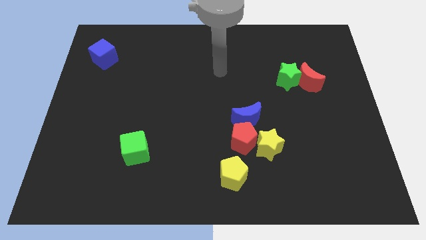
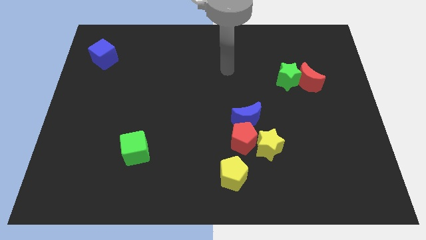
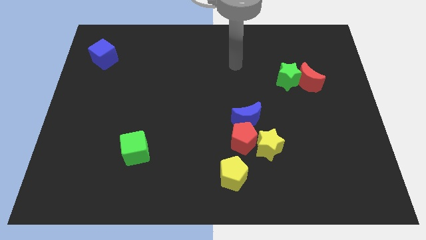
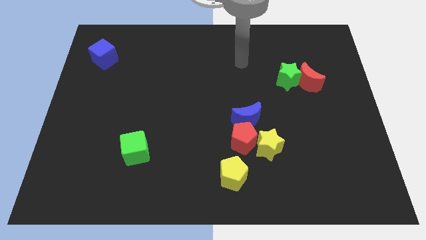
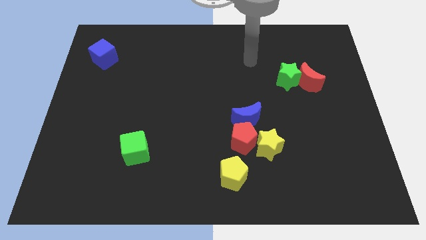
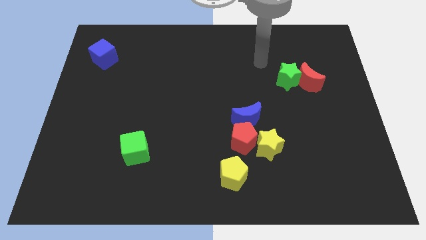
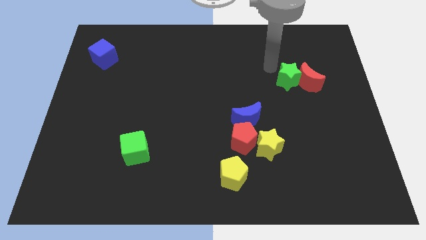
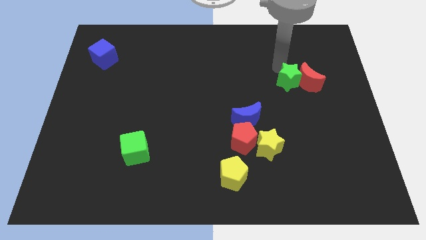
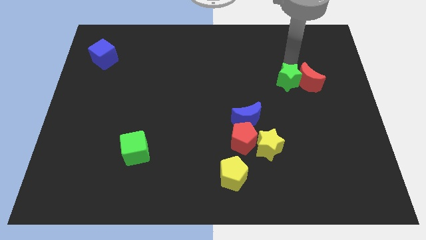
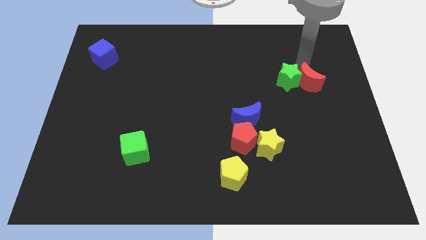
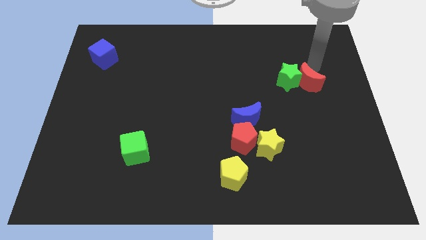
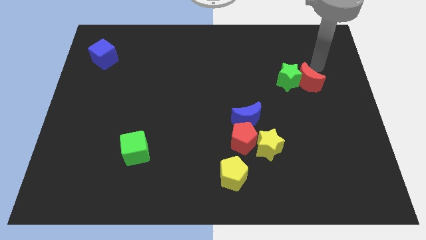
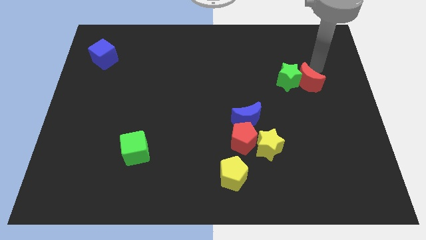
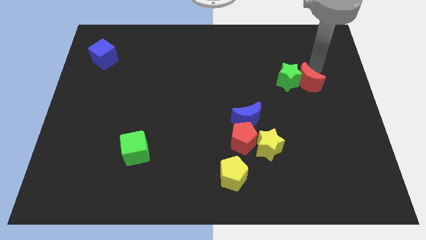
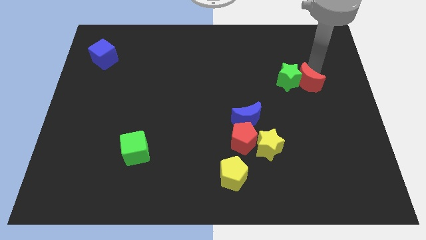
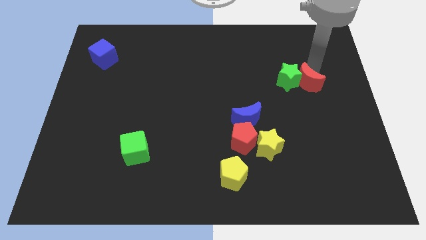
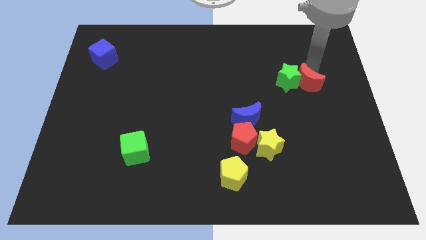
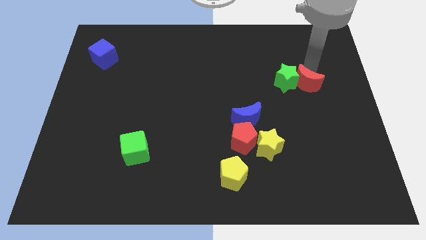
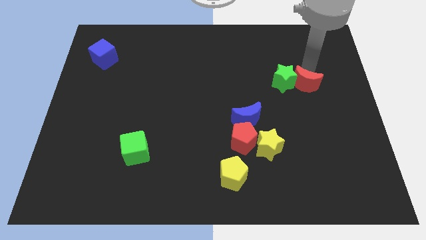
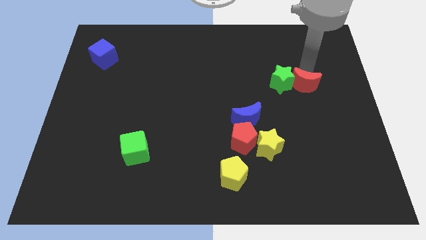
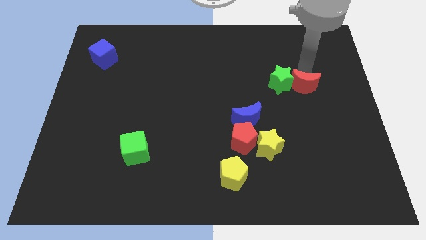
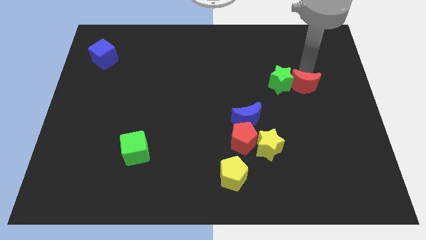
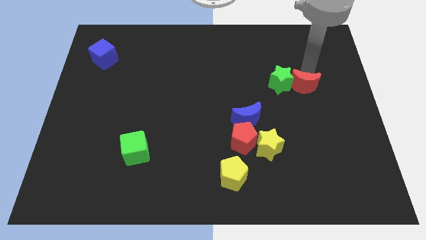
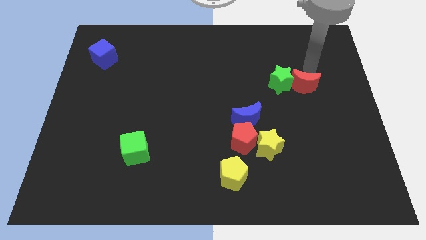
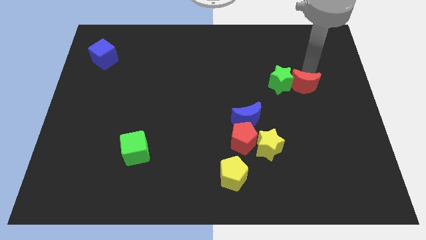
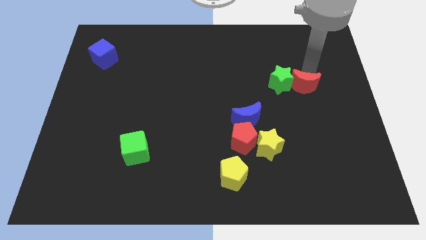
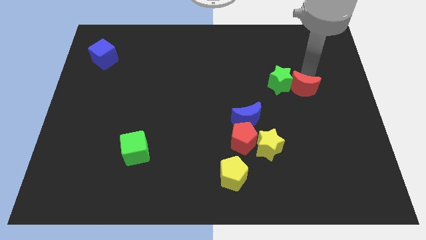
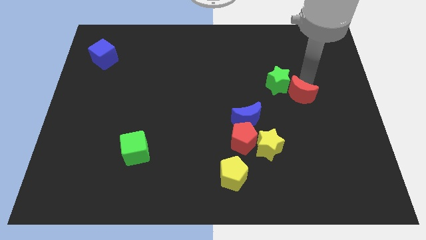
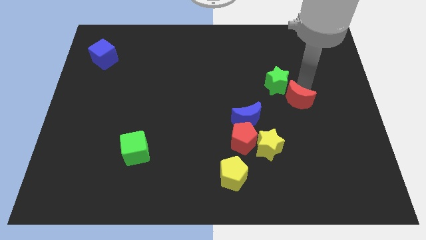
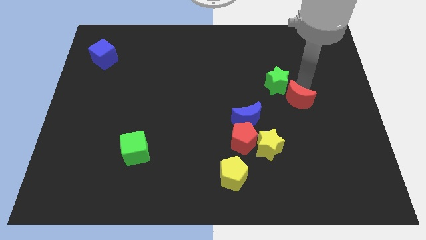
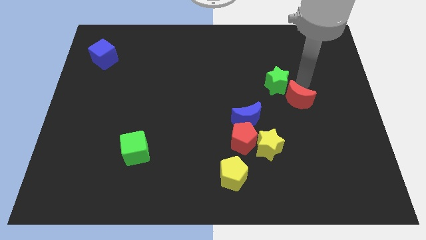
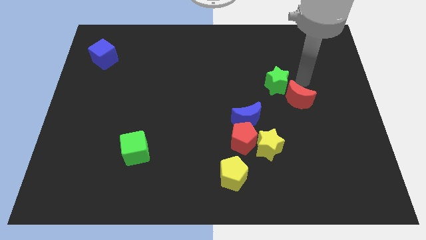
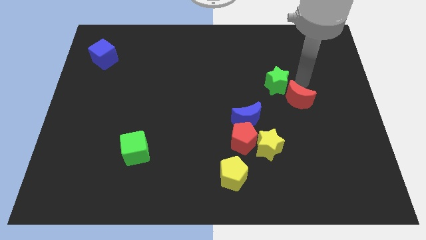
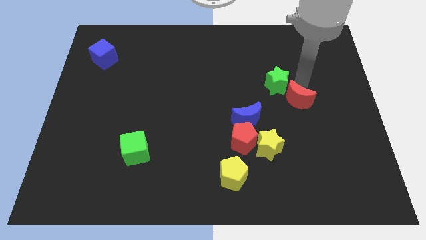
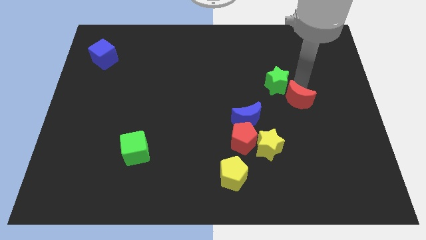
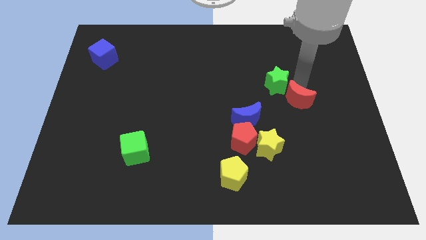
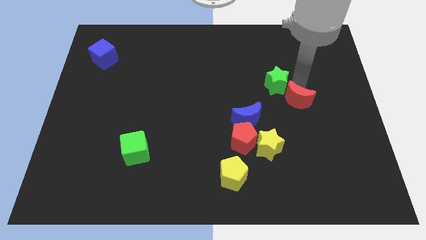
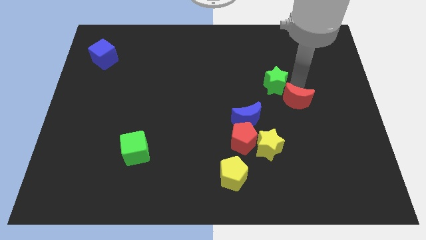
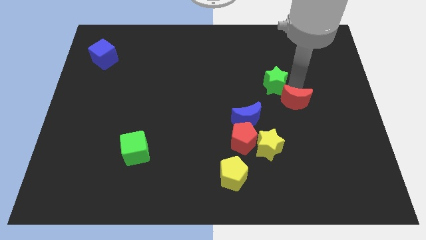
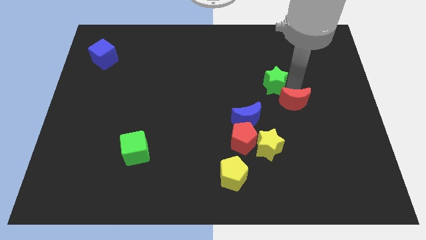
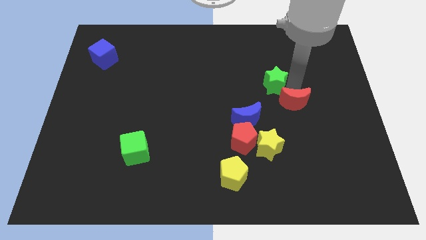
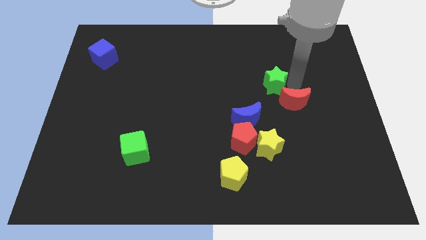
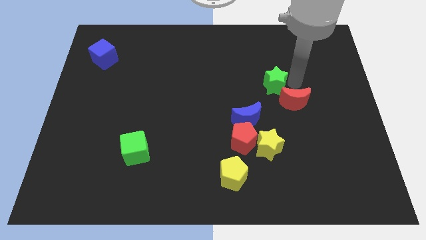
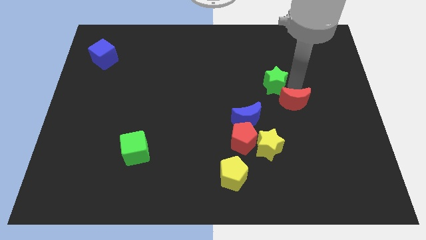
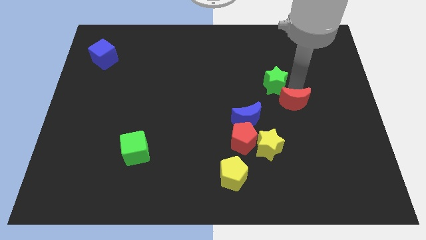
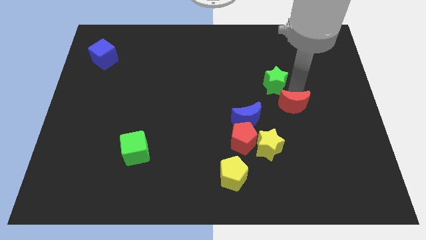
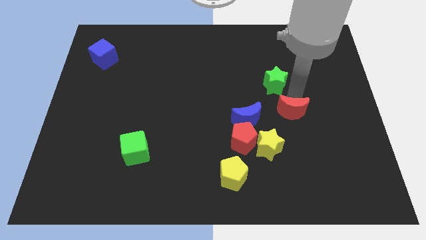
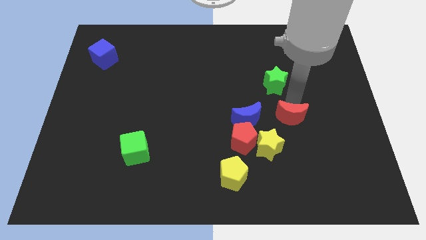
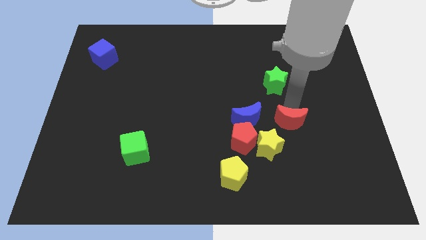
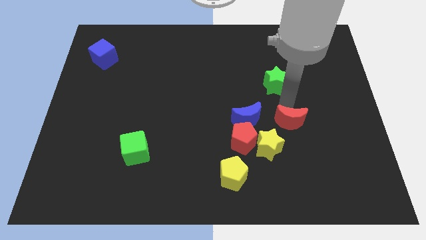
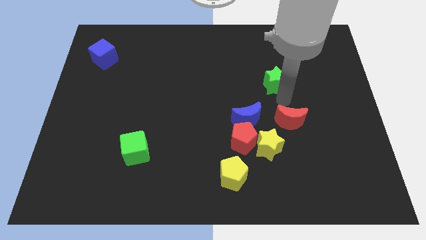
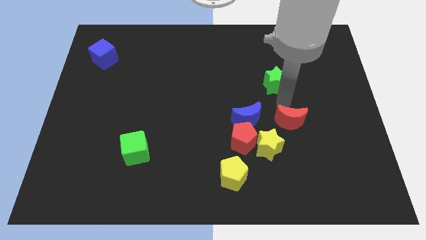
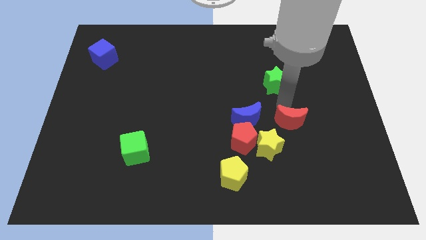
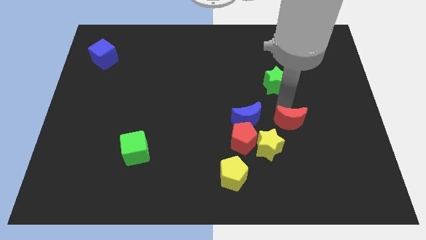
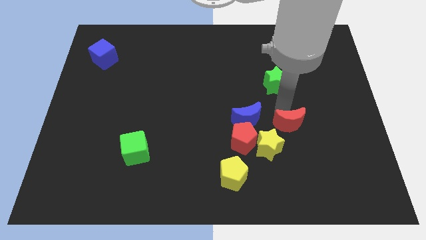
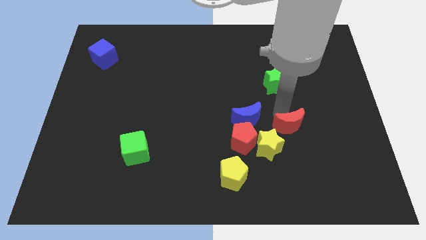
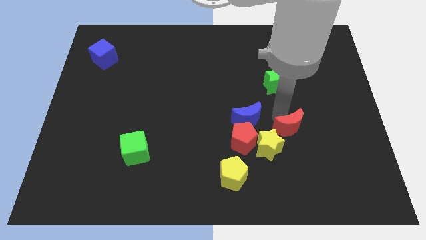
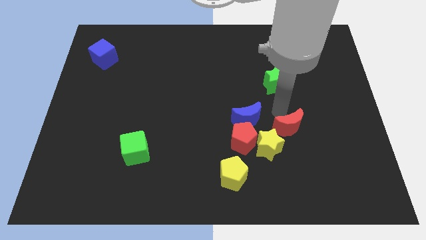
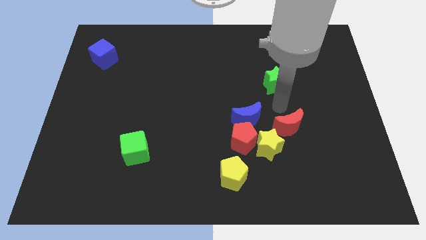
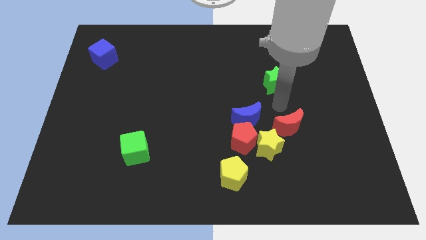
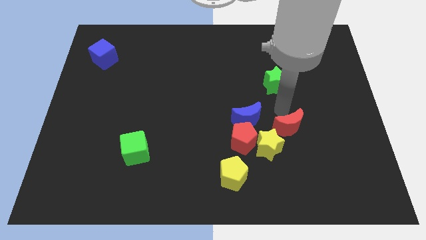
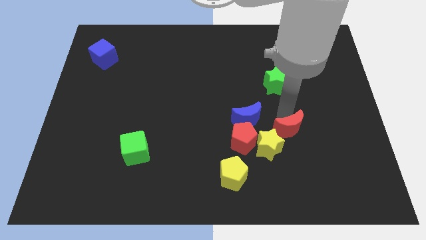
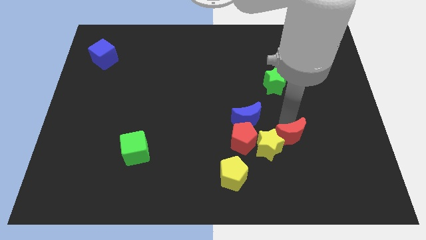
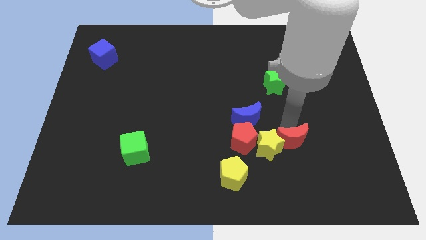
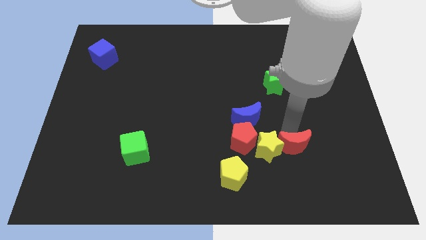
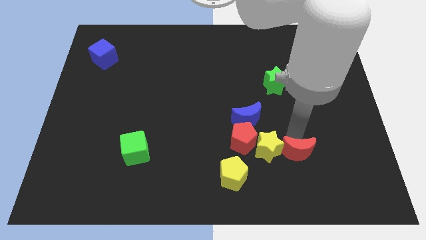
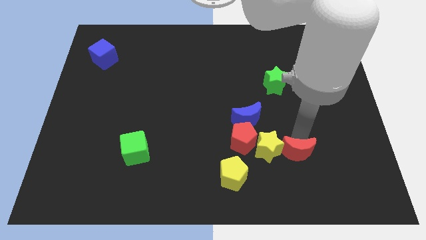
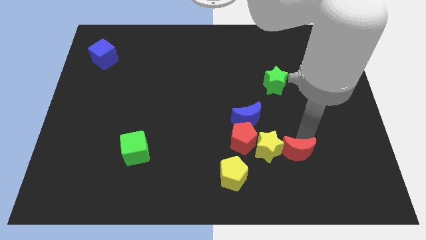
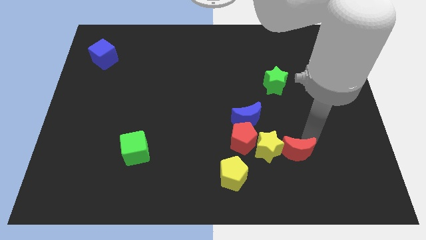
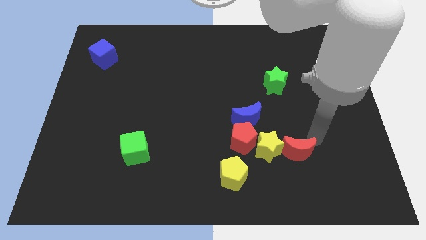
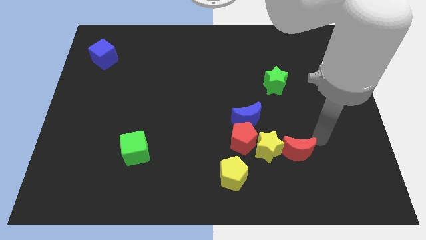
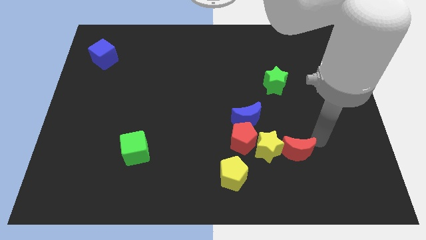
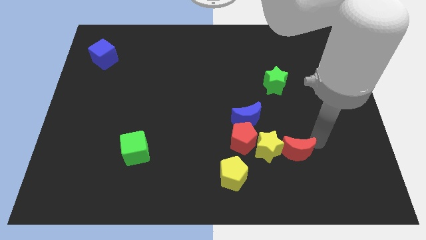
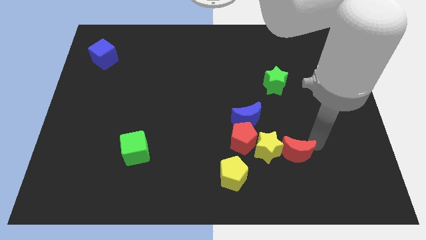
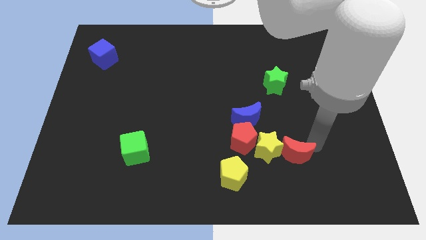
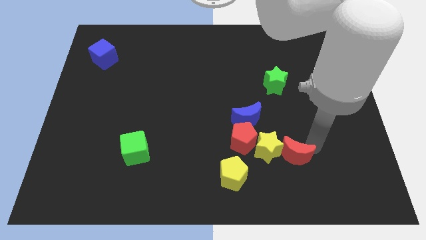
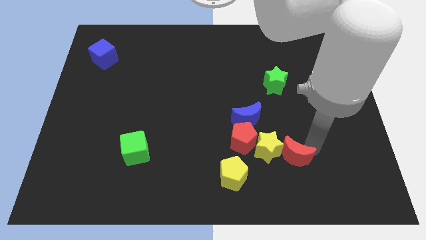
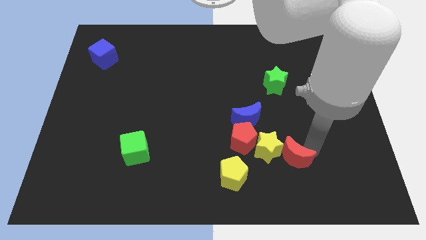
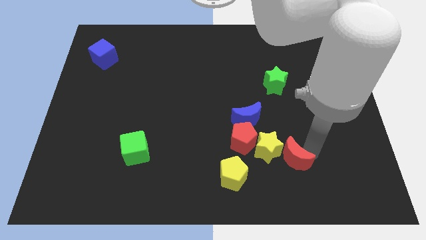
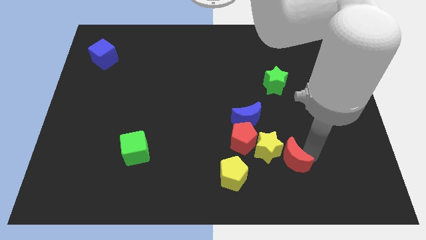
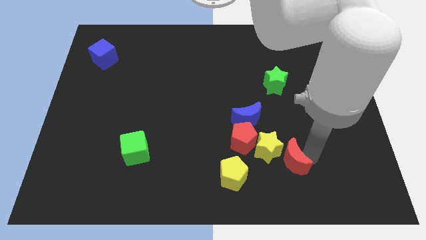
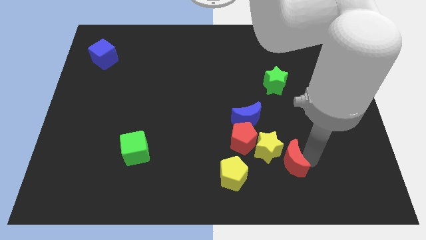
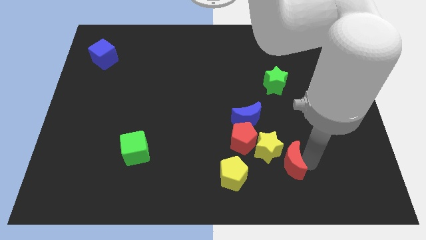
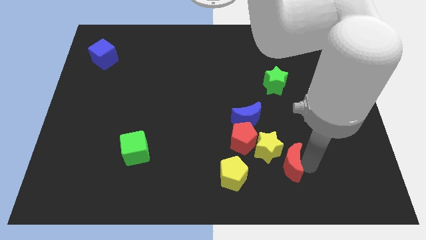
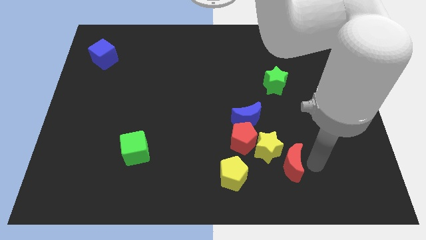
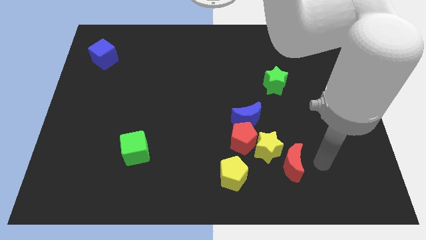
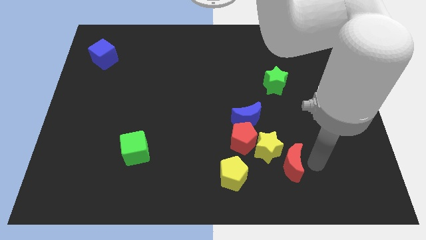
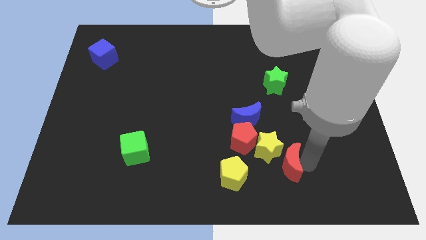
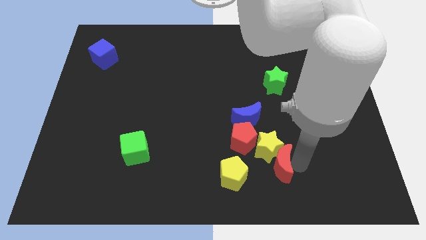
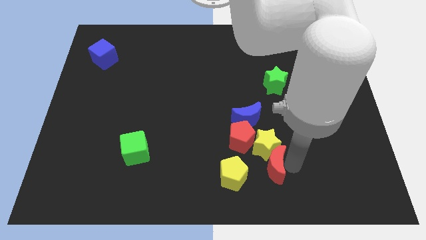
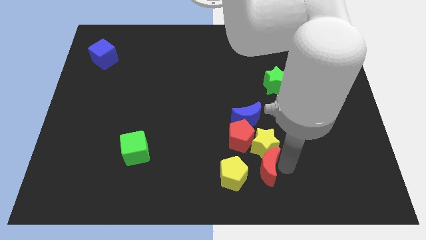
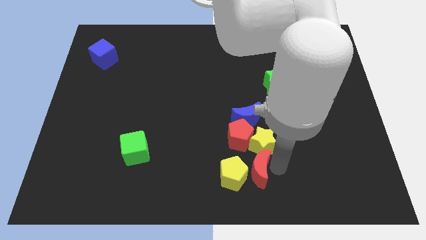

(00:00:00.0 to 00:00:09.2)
slide the red moon to the yellow pentagon
